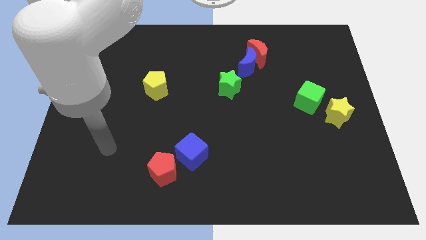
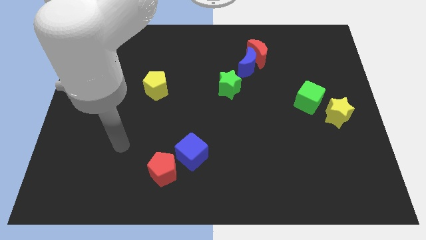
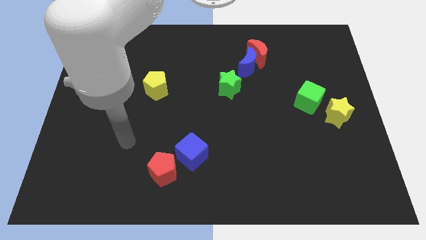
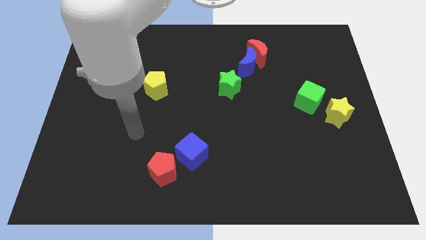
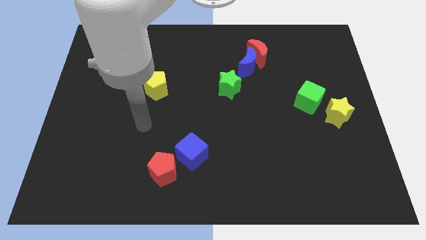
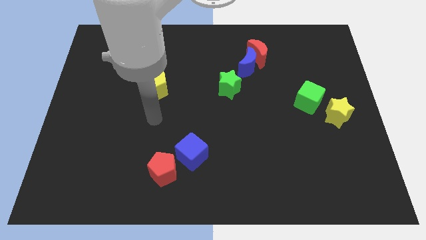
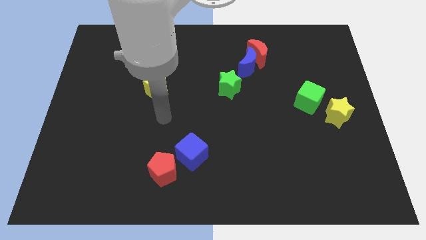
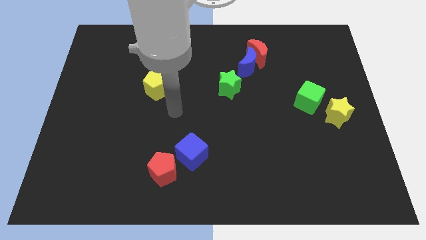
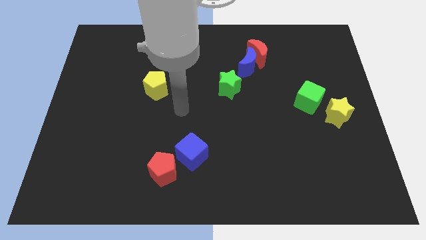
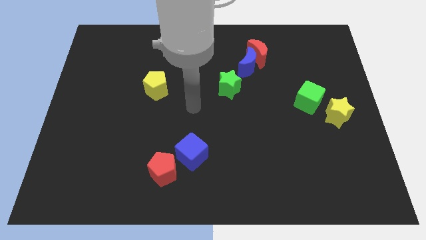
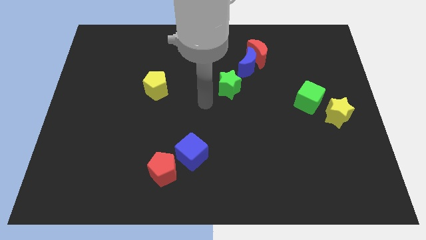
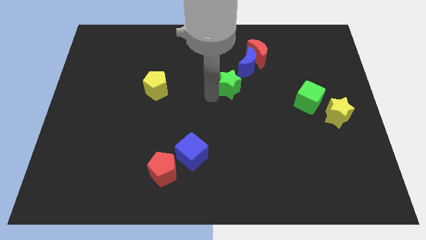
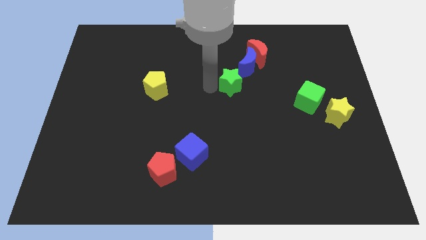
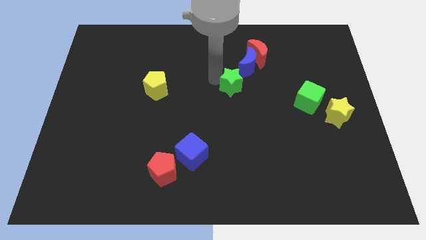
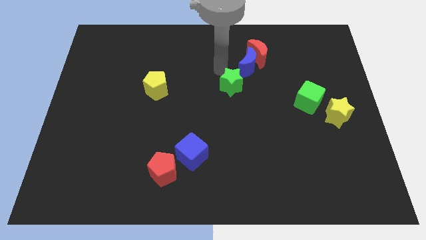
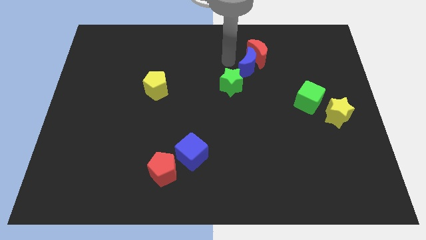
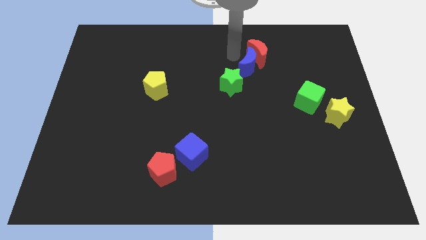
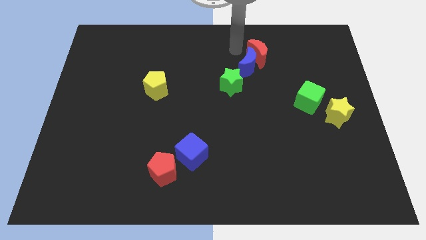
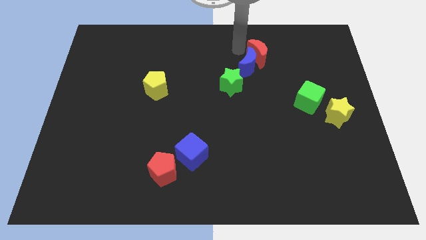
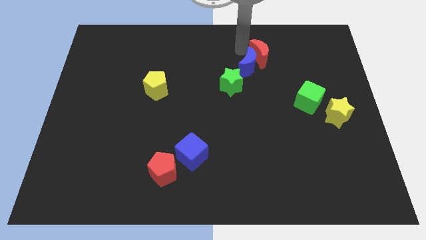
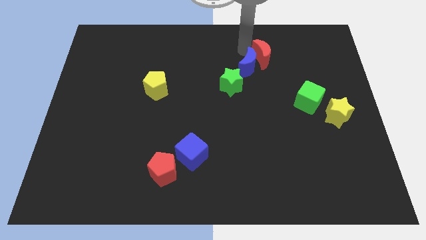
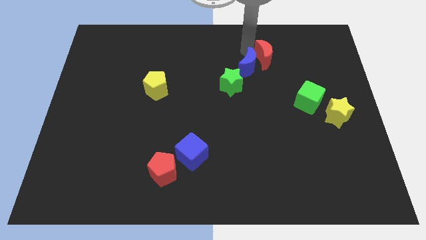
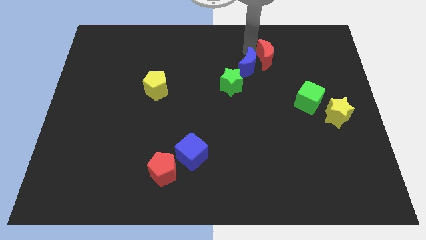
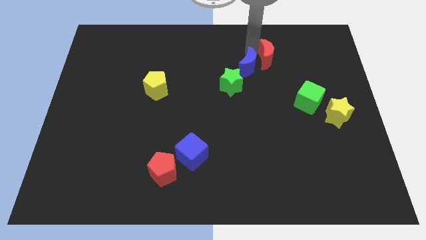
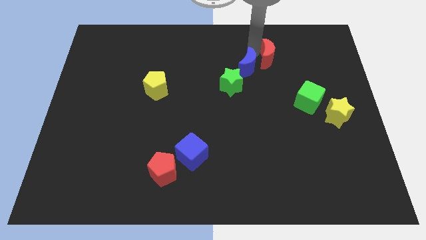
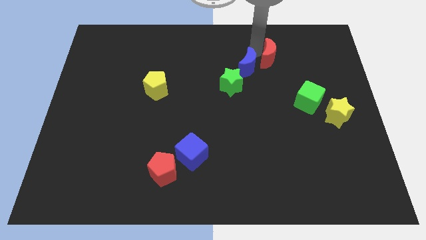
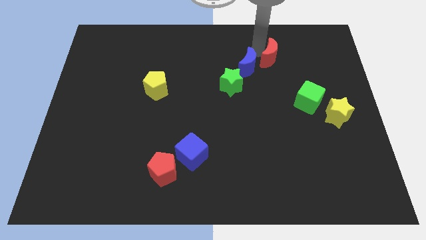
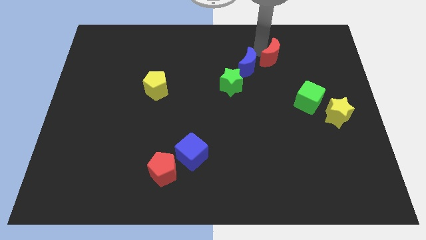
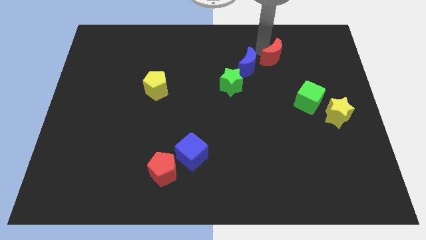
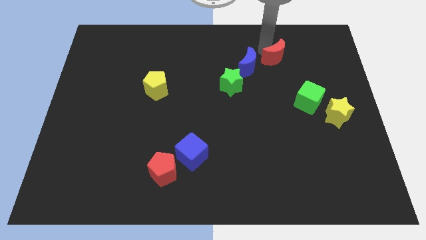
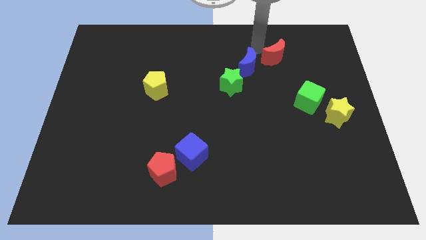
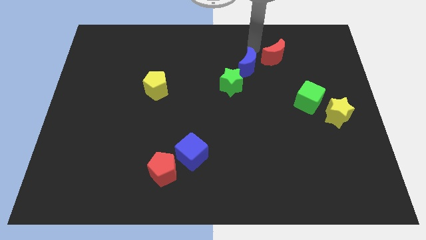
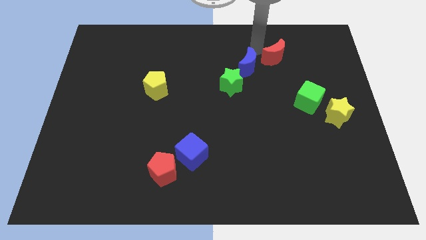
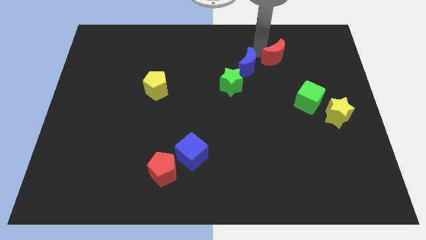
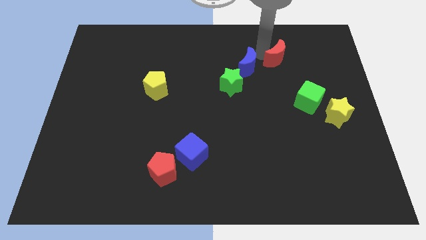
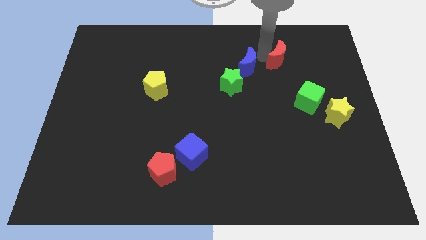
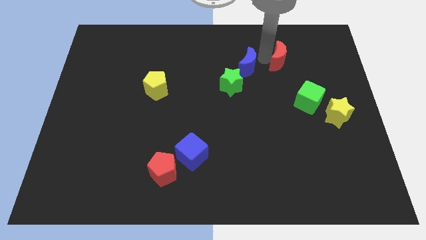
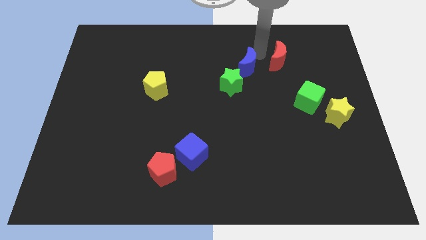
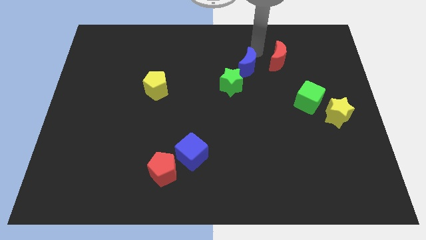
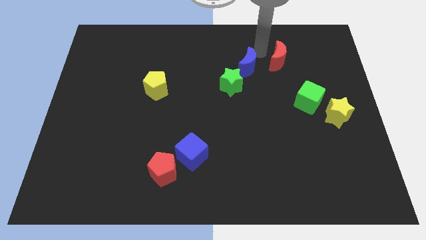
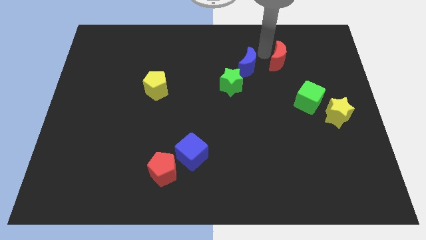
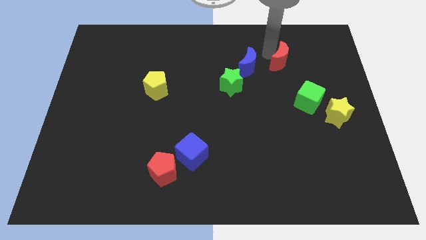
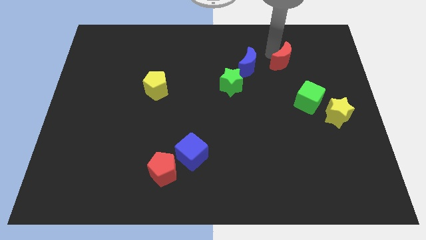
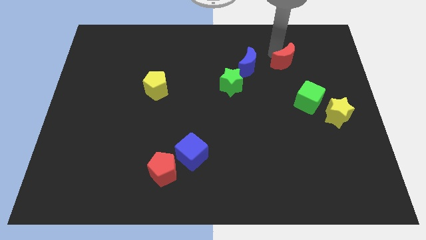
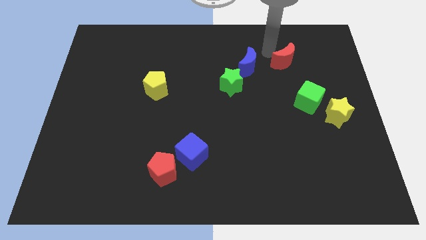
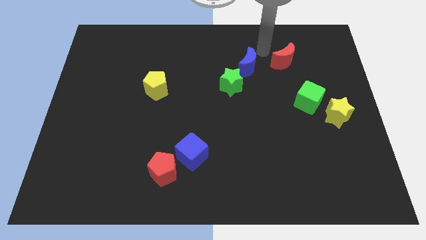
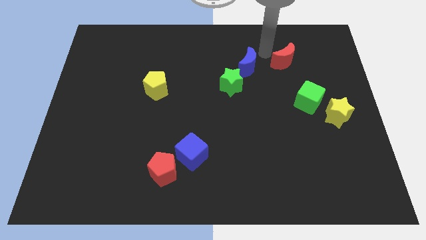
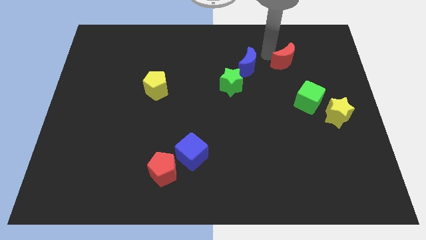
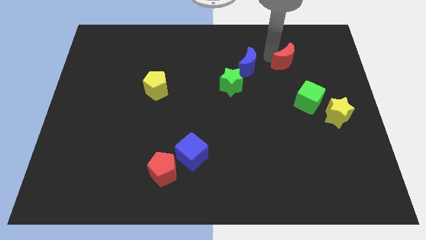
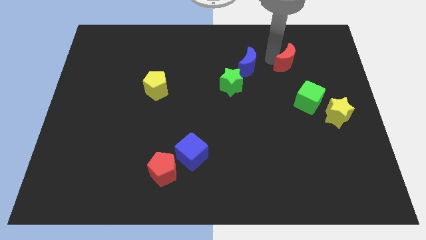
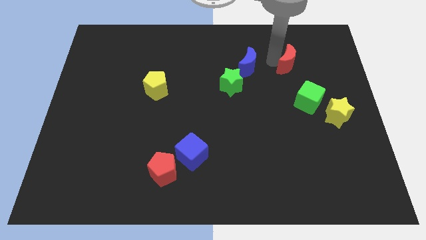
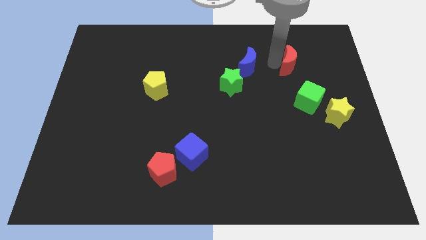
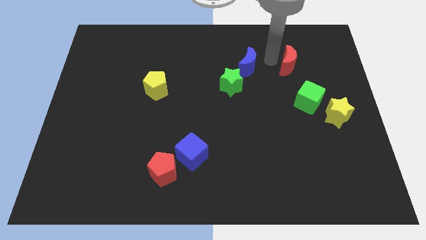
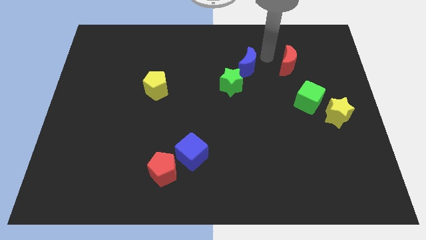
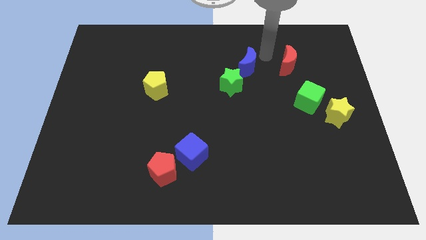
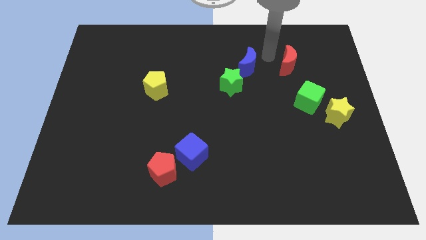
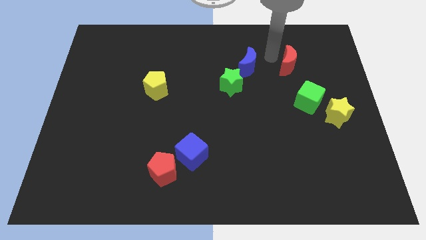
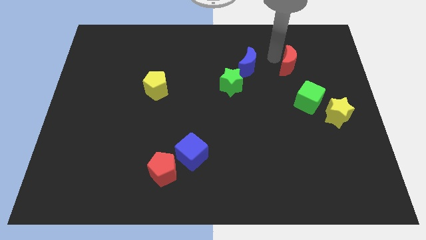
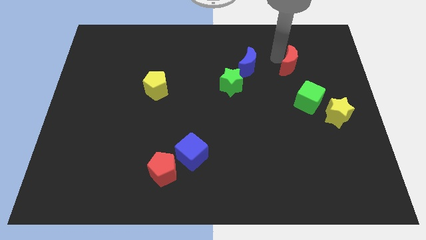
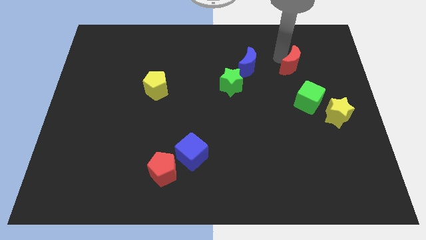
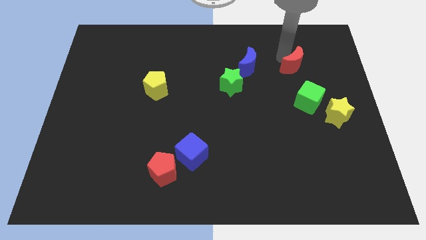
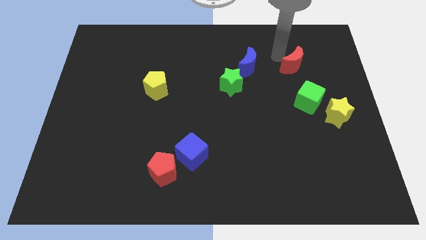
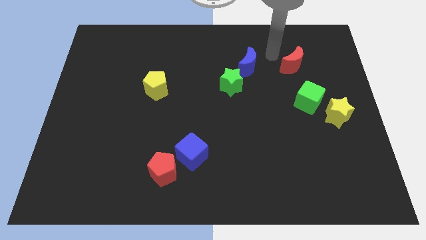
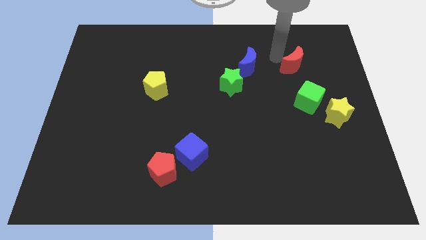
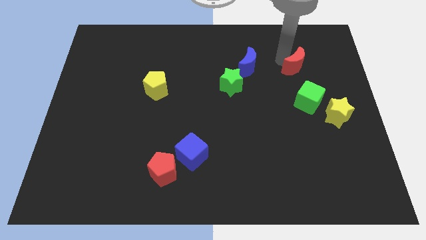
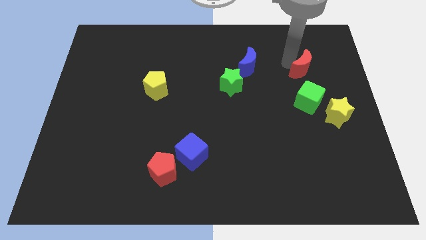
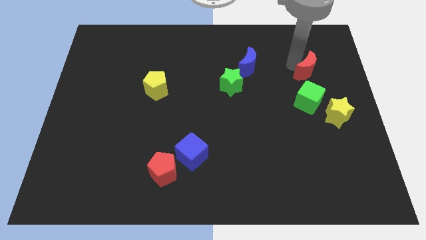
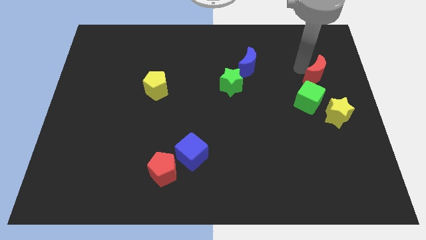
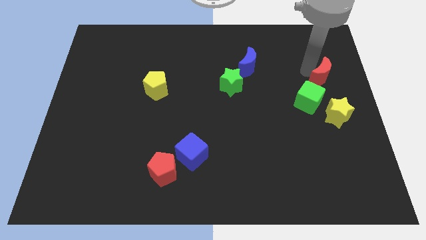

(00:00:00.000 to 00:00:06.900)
put the red moon to the right side of the board
